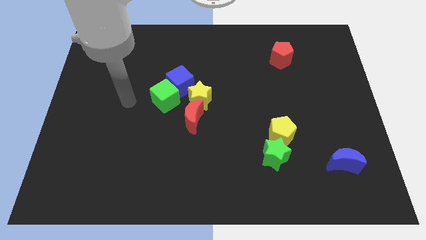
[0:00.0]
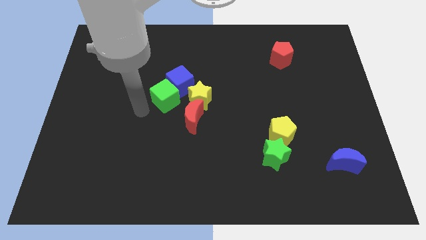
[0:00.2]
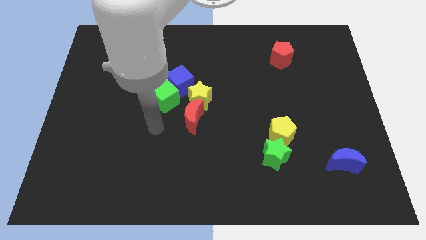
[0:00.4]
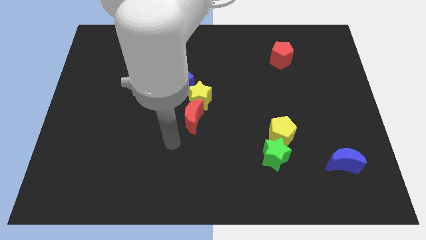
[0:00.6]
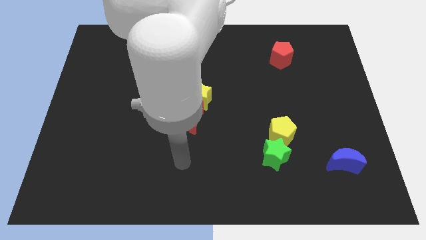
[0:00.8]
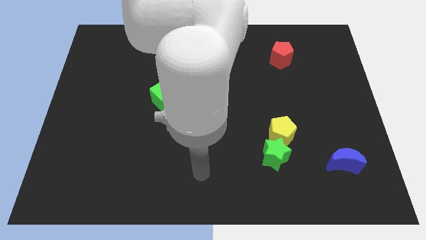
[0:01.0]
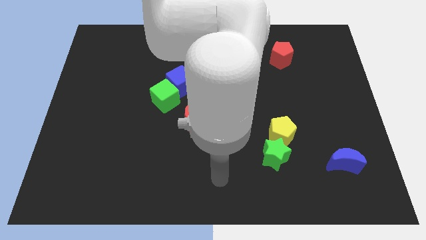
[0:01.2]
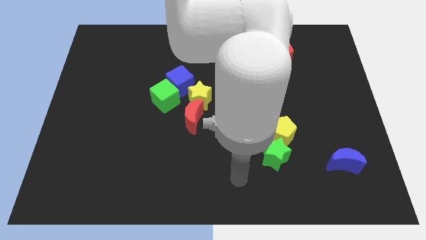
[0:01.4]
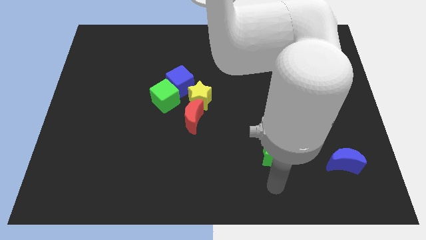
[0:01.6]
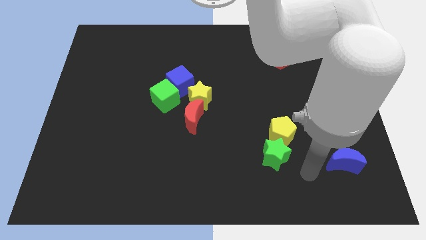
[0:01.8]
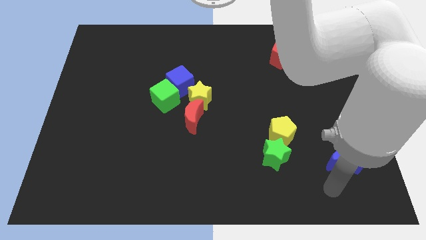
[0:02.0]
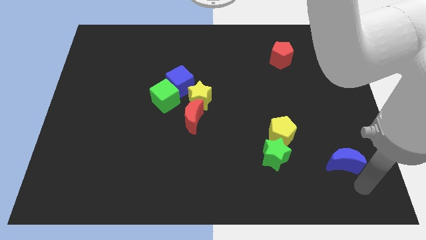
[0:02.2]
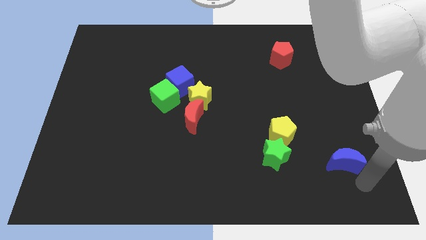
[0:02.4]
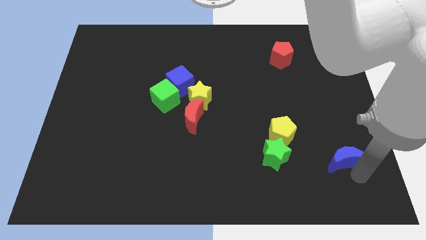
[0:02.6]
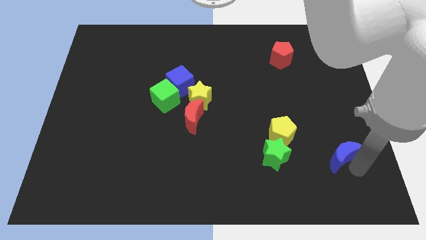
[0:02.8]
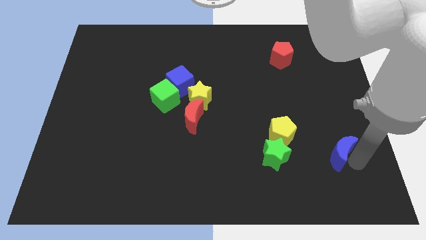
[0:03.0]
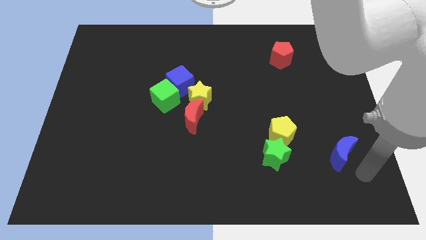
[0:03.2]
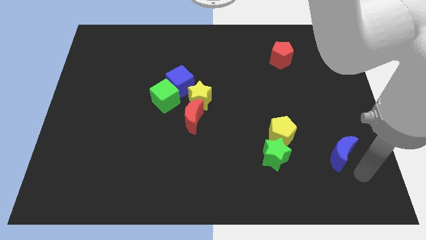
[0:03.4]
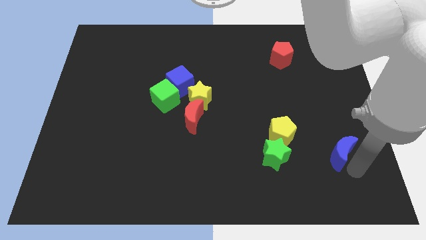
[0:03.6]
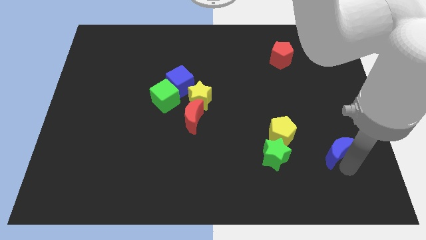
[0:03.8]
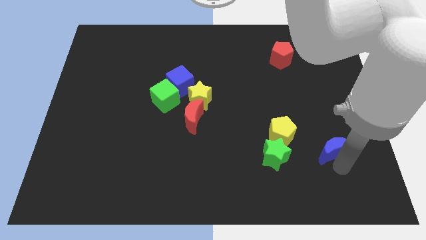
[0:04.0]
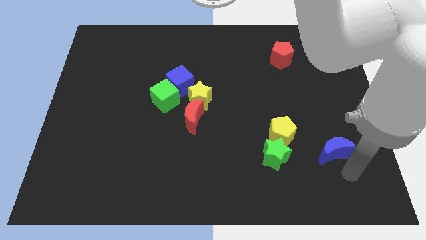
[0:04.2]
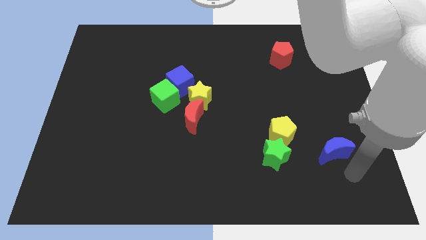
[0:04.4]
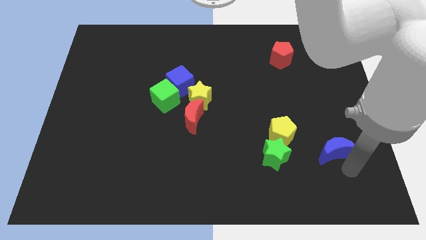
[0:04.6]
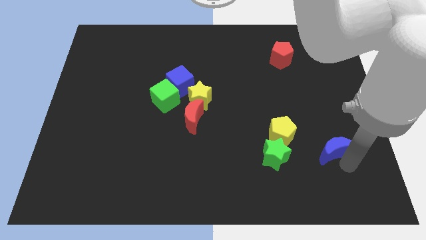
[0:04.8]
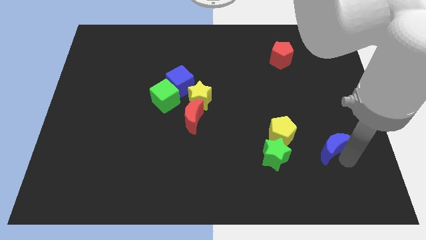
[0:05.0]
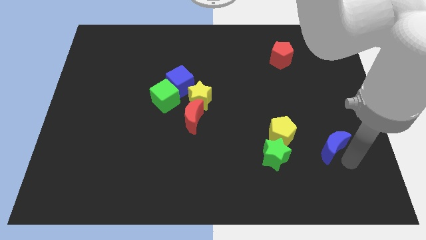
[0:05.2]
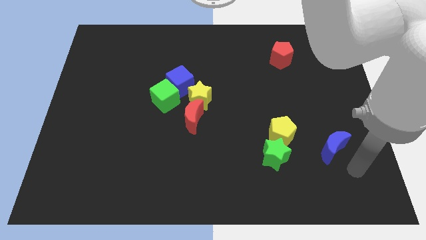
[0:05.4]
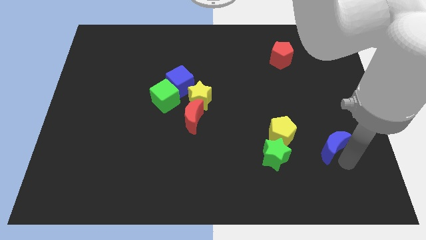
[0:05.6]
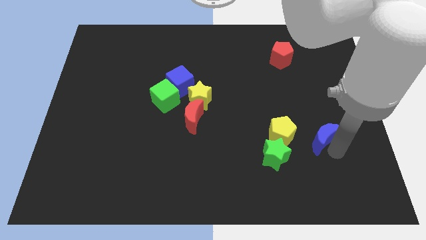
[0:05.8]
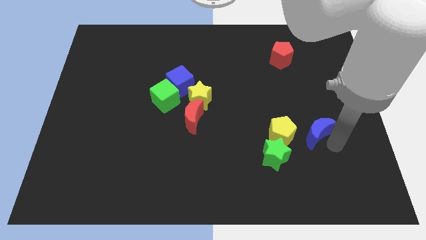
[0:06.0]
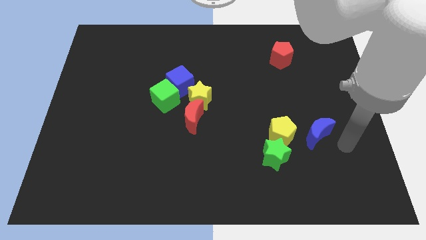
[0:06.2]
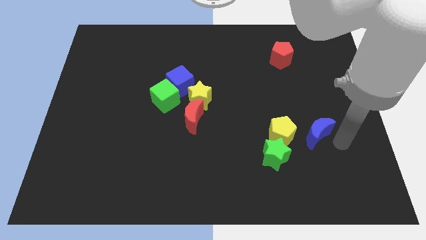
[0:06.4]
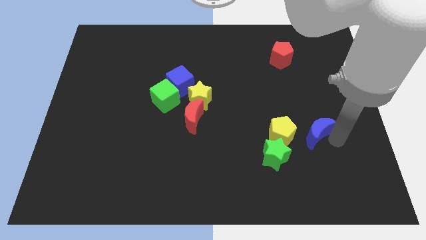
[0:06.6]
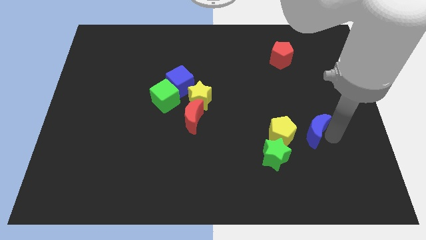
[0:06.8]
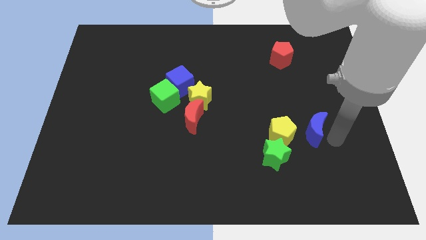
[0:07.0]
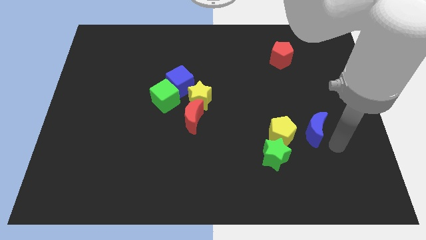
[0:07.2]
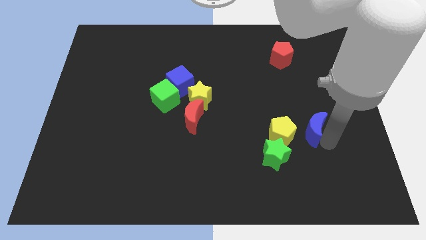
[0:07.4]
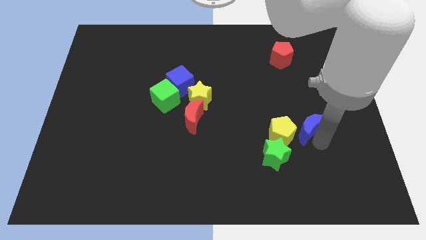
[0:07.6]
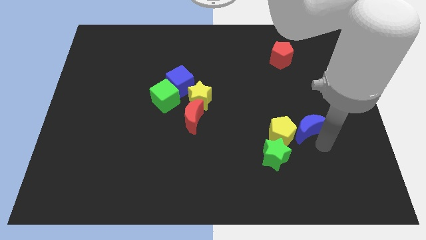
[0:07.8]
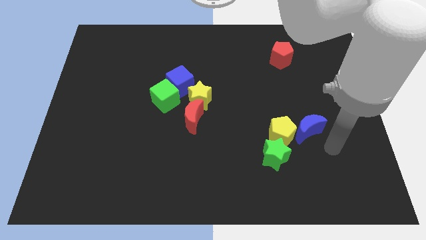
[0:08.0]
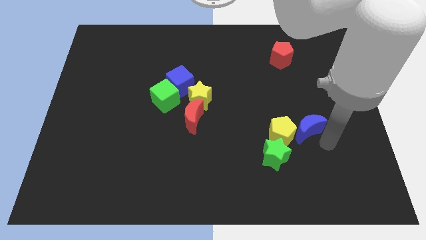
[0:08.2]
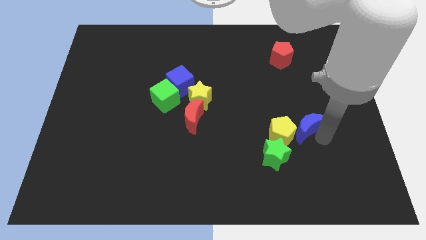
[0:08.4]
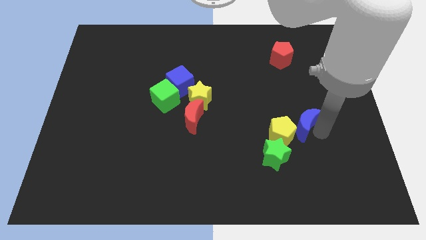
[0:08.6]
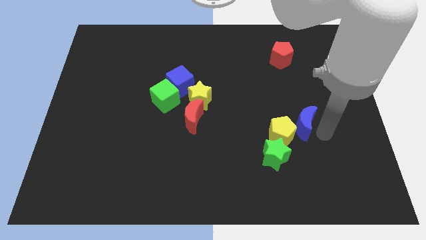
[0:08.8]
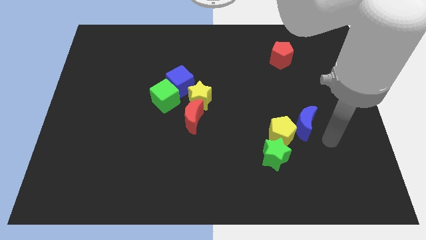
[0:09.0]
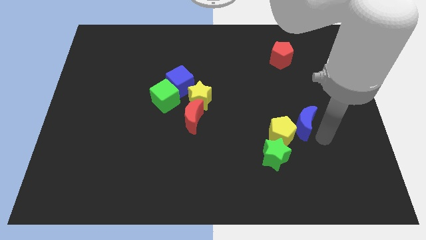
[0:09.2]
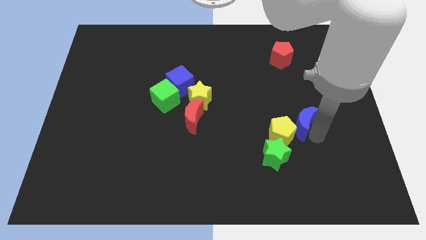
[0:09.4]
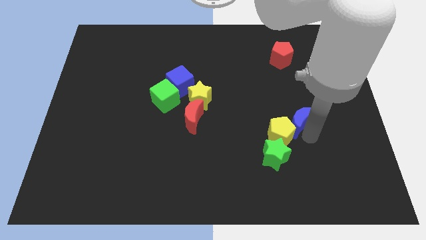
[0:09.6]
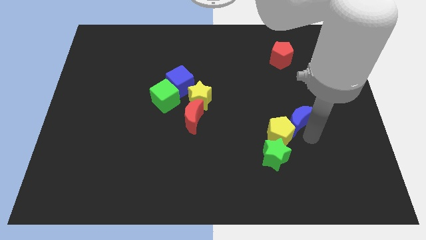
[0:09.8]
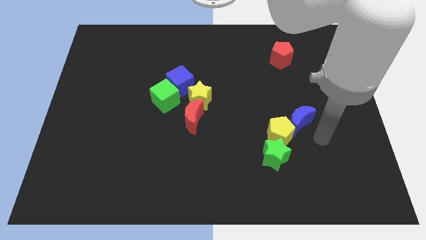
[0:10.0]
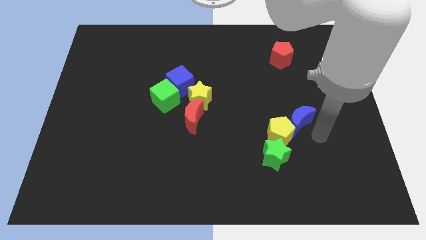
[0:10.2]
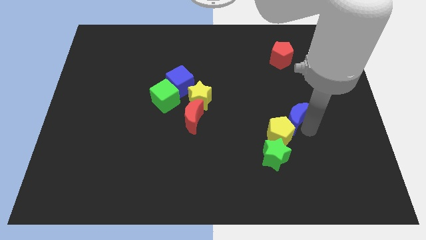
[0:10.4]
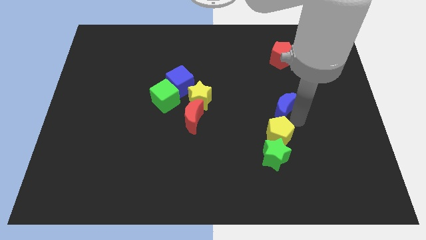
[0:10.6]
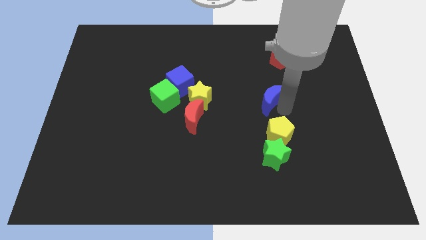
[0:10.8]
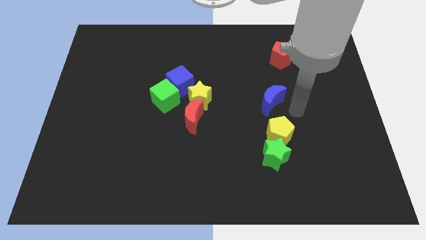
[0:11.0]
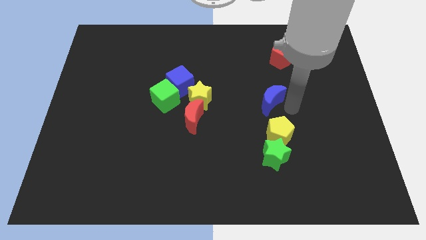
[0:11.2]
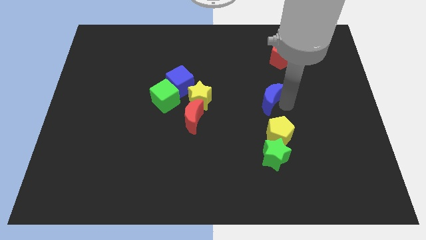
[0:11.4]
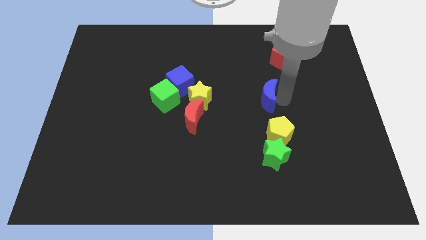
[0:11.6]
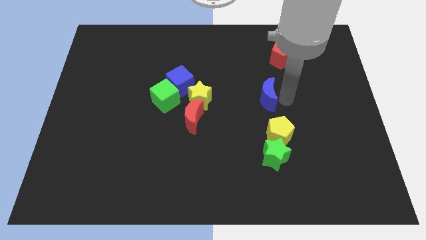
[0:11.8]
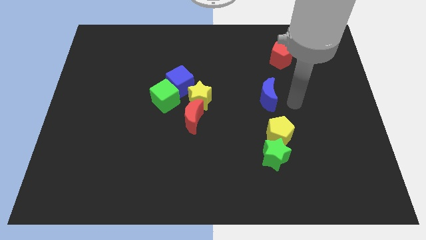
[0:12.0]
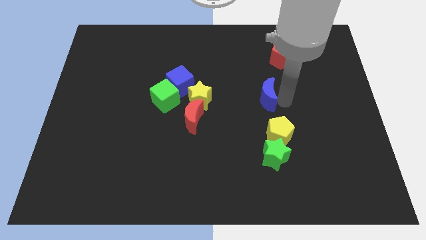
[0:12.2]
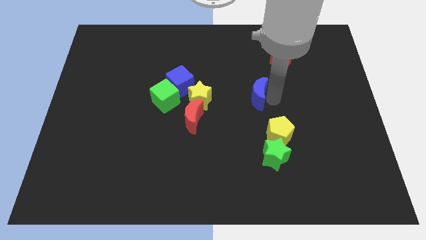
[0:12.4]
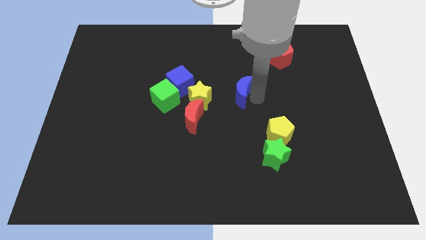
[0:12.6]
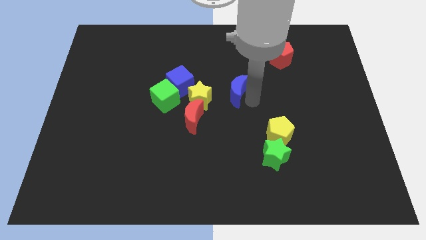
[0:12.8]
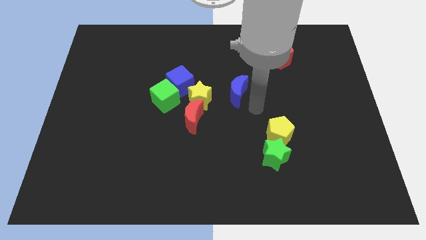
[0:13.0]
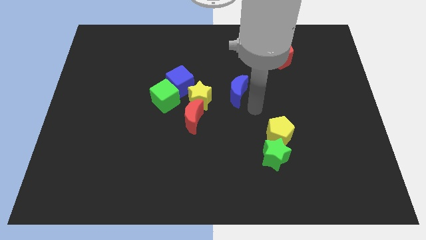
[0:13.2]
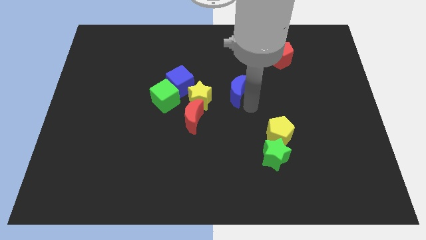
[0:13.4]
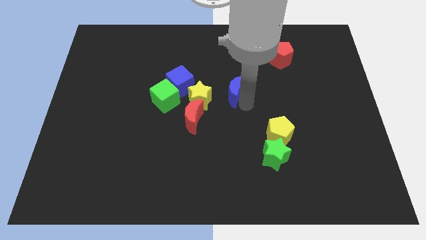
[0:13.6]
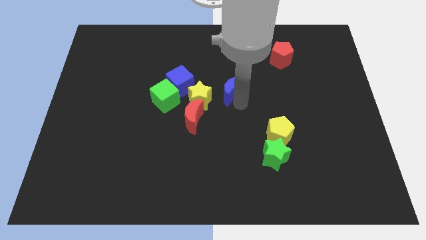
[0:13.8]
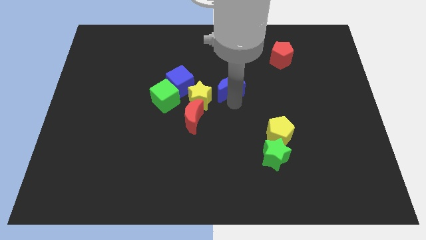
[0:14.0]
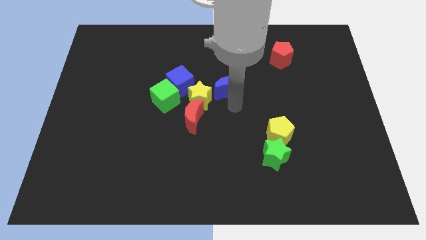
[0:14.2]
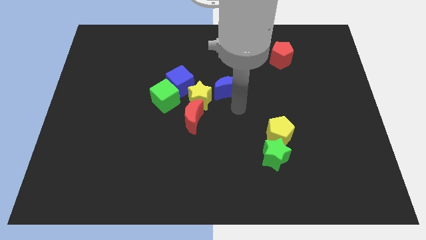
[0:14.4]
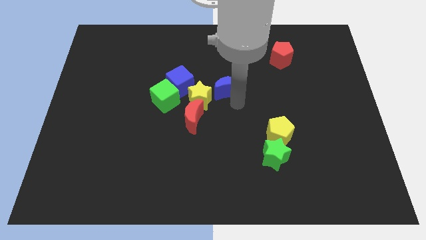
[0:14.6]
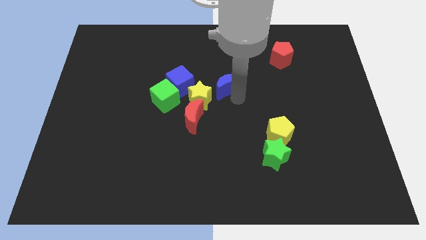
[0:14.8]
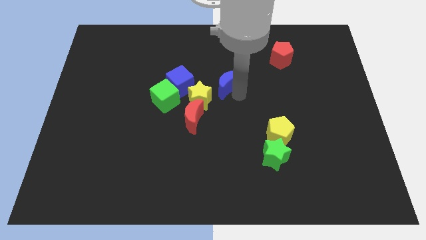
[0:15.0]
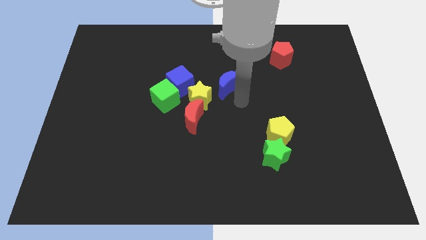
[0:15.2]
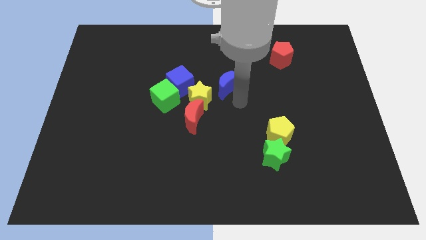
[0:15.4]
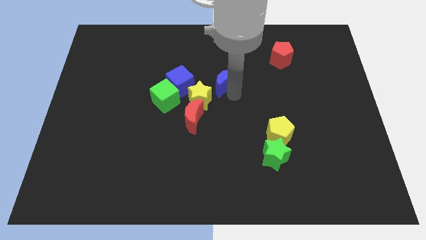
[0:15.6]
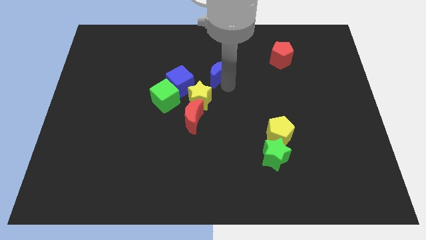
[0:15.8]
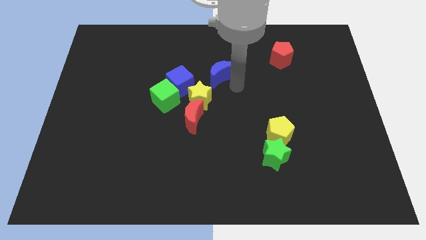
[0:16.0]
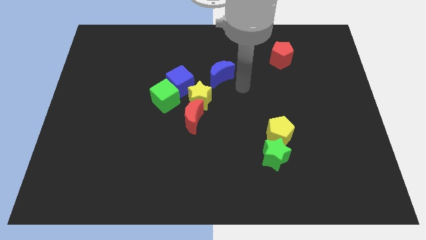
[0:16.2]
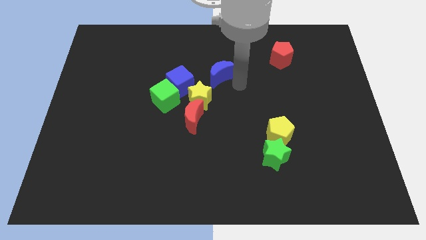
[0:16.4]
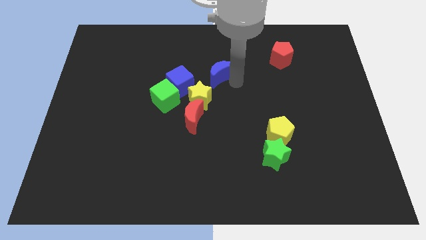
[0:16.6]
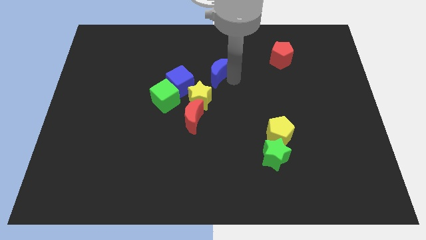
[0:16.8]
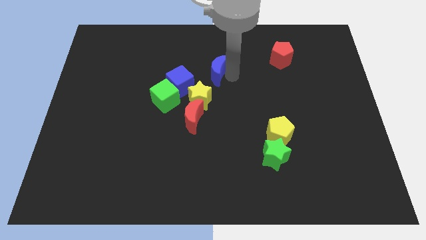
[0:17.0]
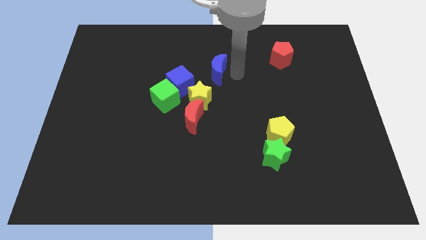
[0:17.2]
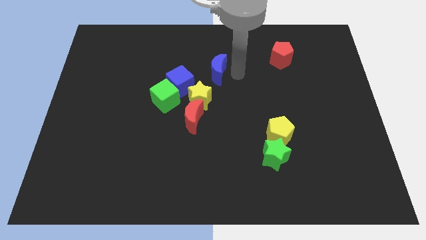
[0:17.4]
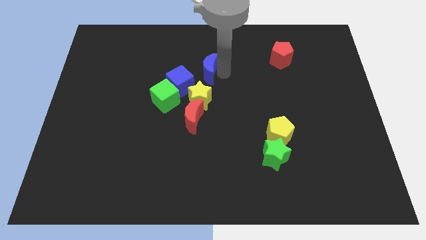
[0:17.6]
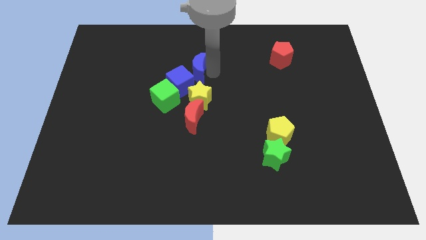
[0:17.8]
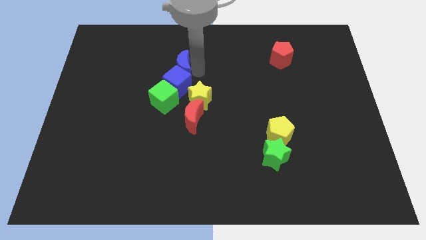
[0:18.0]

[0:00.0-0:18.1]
move the blue moon diagonally up and to the left of the blue cube
